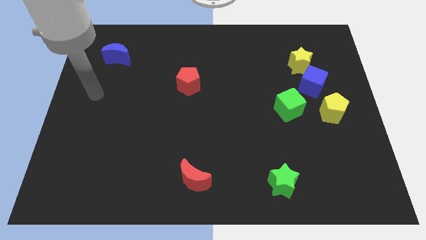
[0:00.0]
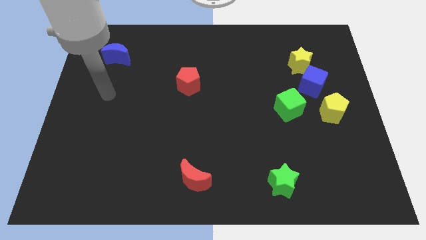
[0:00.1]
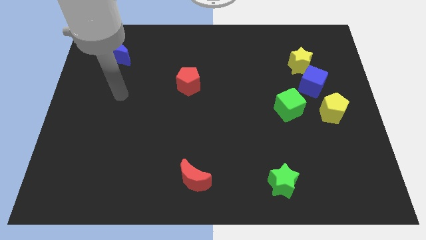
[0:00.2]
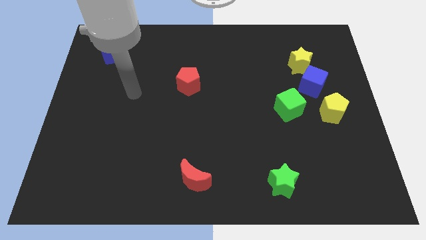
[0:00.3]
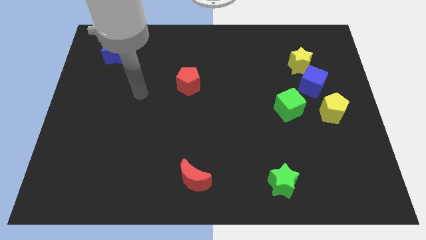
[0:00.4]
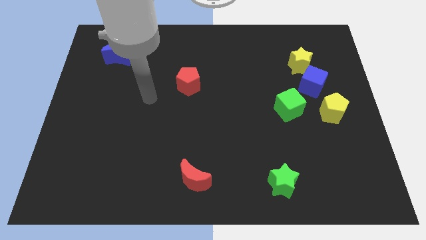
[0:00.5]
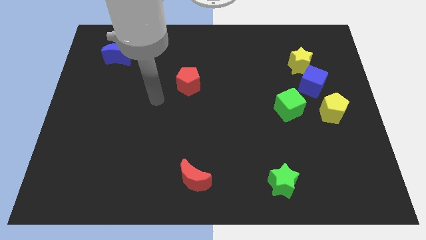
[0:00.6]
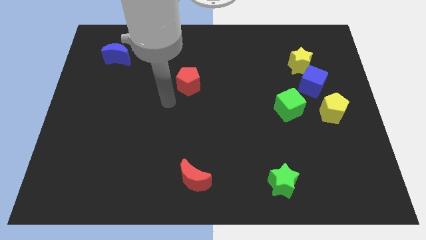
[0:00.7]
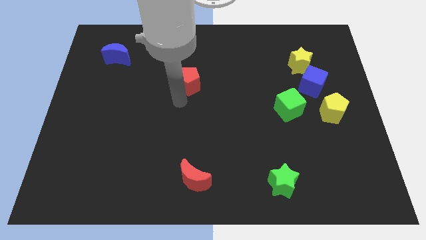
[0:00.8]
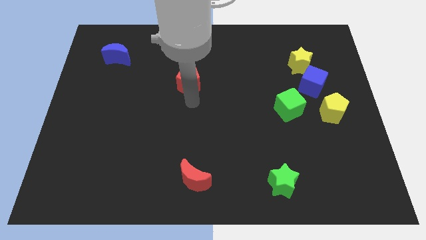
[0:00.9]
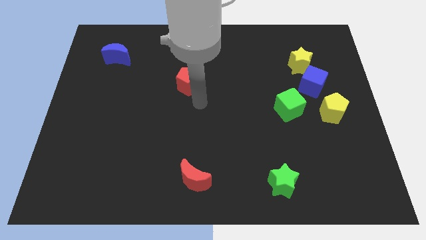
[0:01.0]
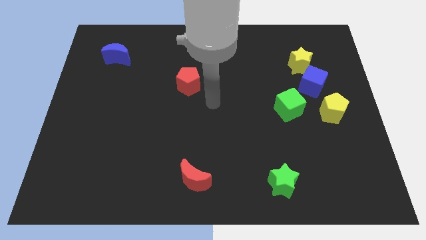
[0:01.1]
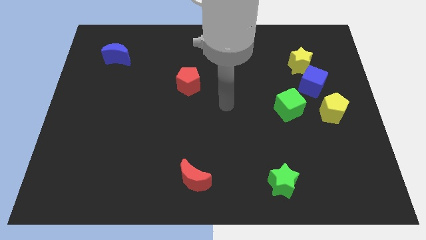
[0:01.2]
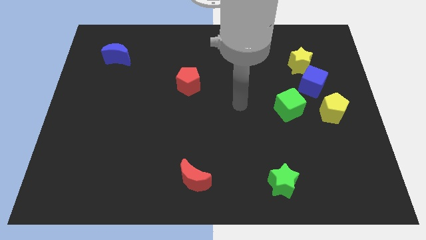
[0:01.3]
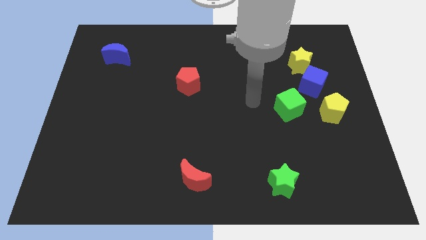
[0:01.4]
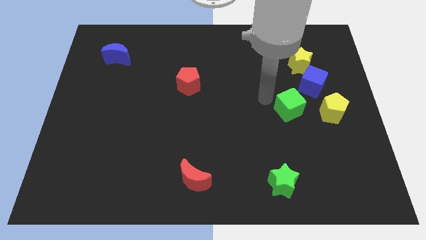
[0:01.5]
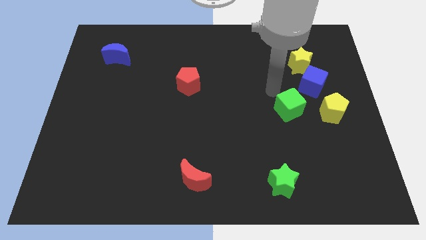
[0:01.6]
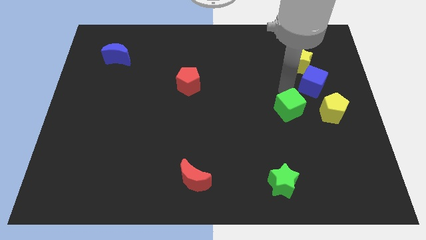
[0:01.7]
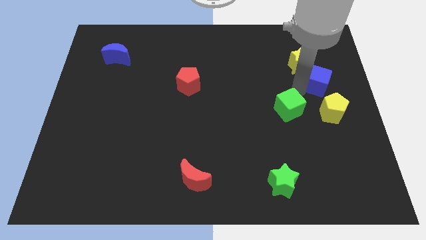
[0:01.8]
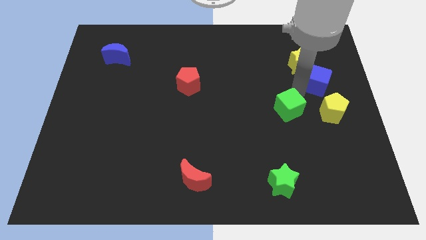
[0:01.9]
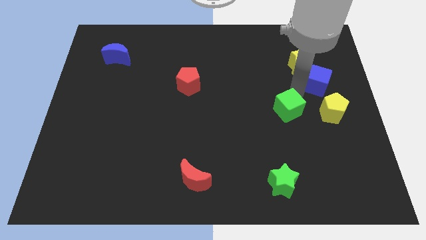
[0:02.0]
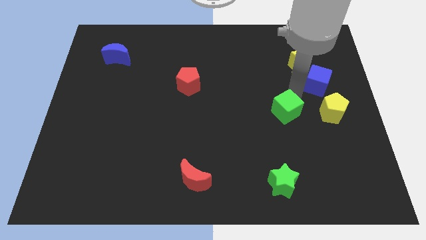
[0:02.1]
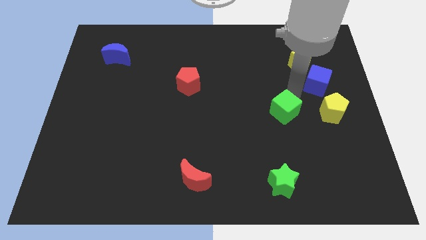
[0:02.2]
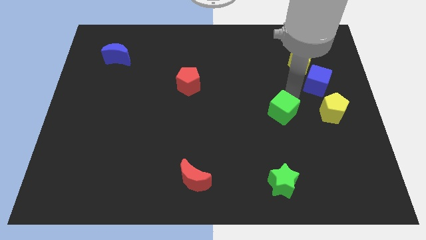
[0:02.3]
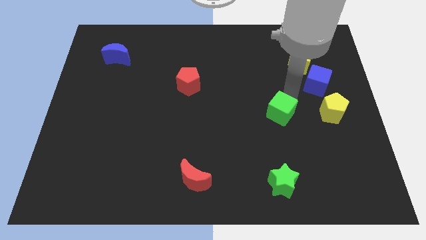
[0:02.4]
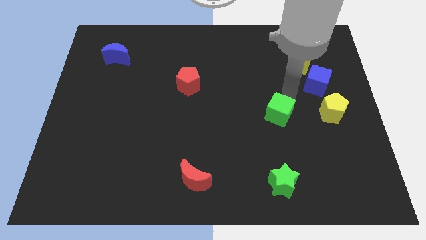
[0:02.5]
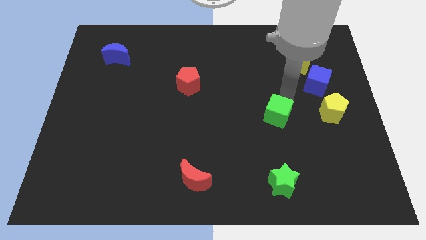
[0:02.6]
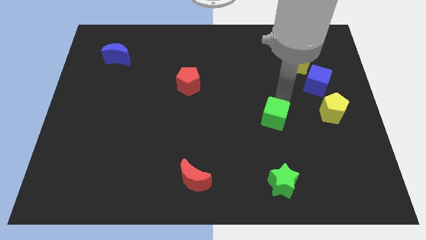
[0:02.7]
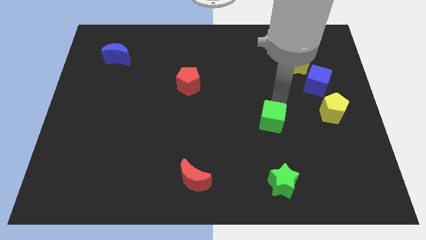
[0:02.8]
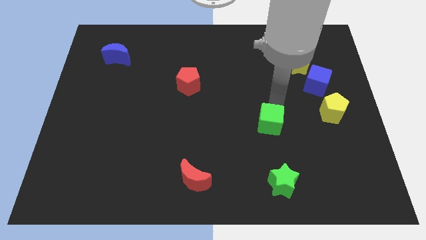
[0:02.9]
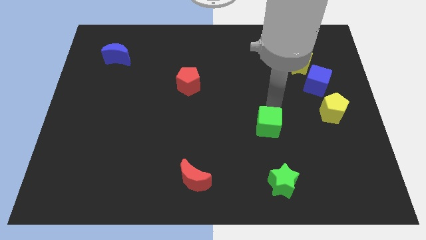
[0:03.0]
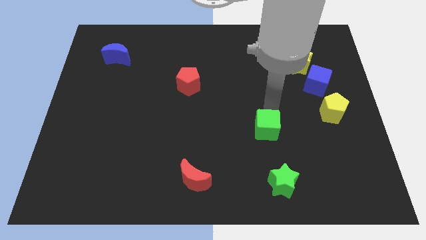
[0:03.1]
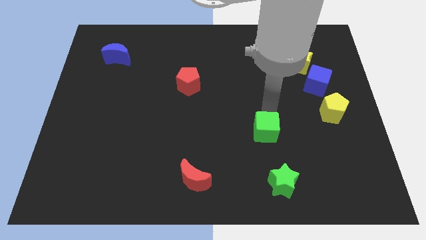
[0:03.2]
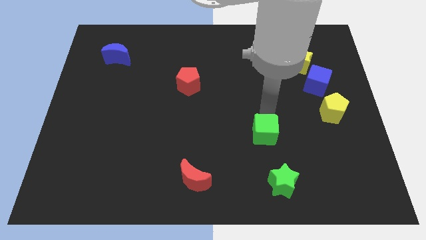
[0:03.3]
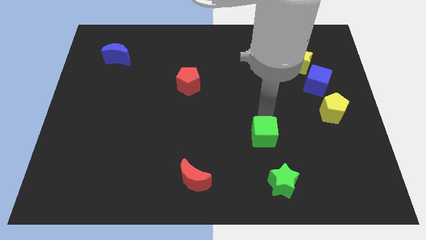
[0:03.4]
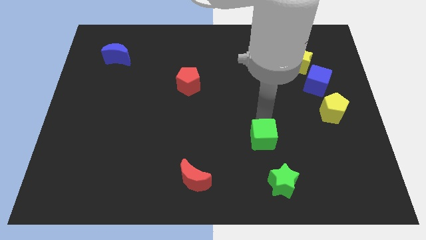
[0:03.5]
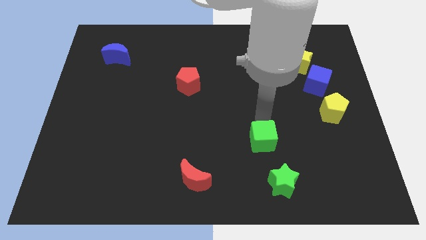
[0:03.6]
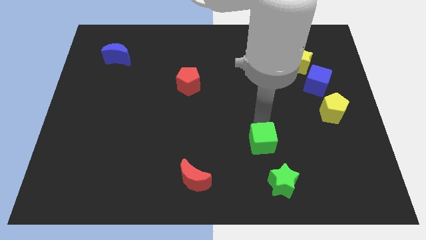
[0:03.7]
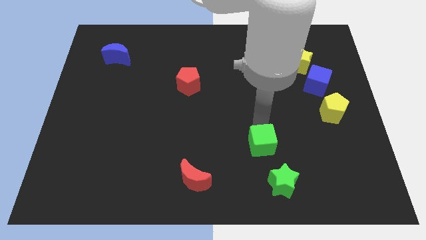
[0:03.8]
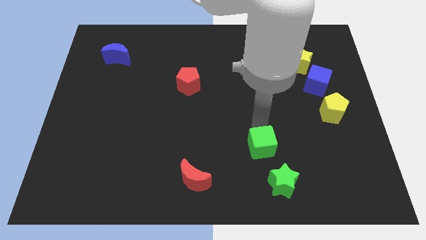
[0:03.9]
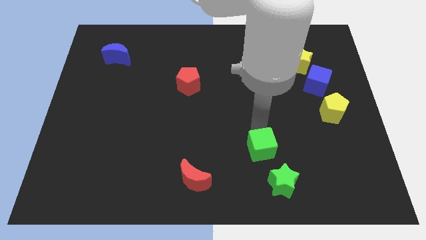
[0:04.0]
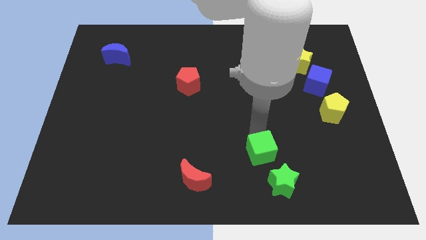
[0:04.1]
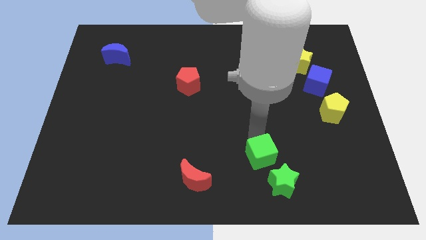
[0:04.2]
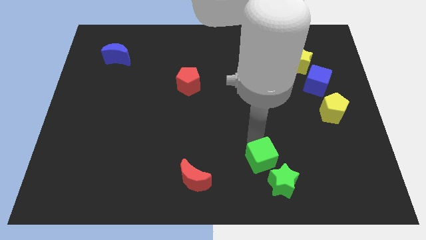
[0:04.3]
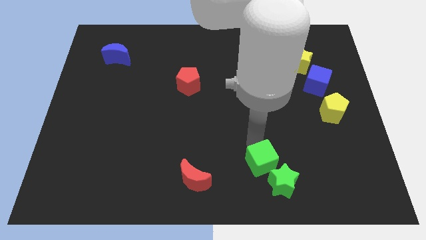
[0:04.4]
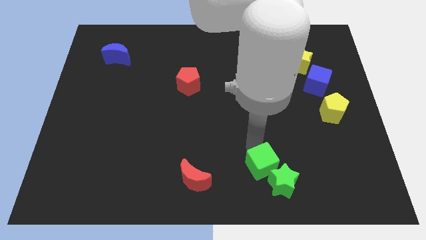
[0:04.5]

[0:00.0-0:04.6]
put the green cube close to the green star

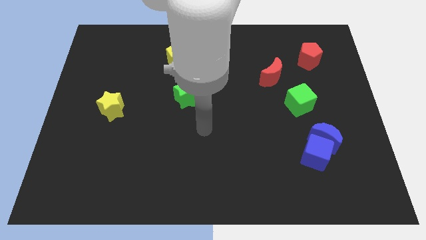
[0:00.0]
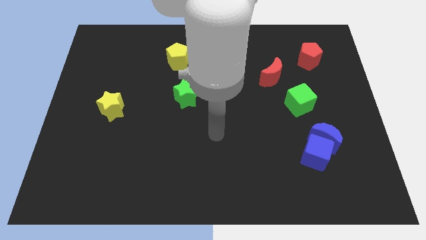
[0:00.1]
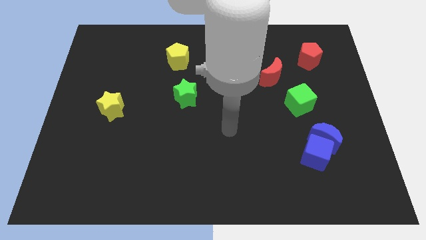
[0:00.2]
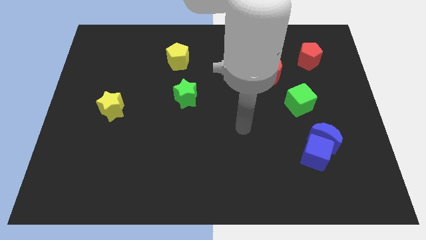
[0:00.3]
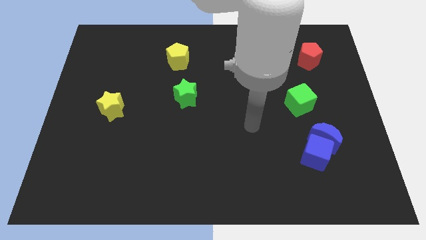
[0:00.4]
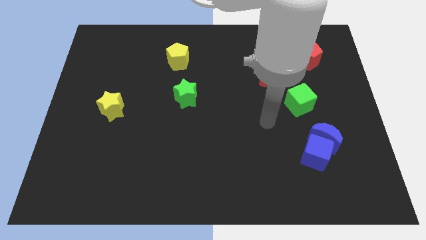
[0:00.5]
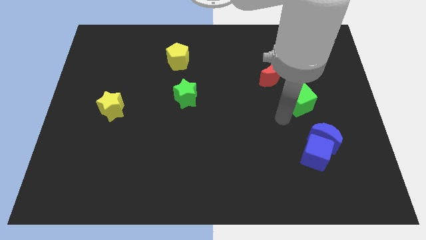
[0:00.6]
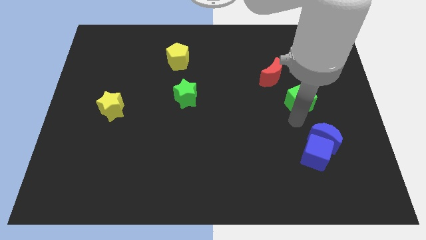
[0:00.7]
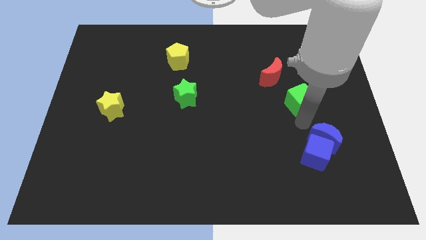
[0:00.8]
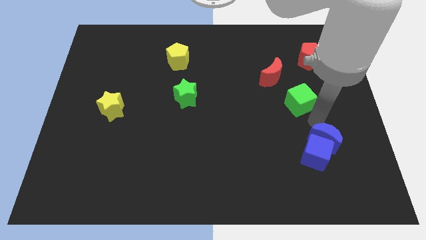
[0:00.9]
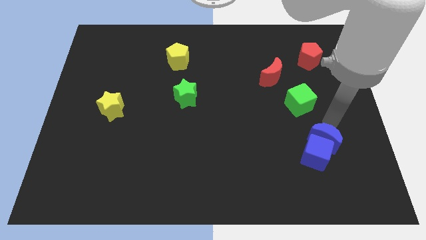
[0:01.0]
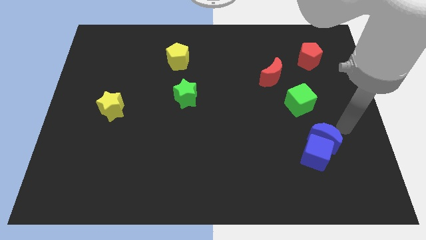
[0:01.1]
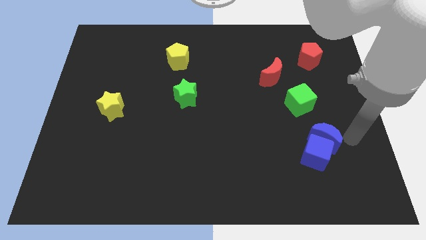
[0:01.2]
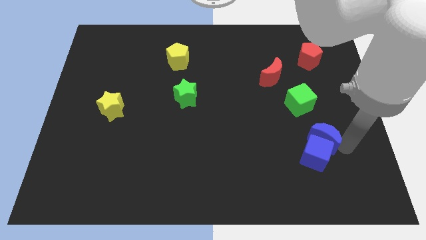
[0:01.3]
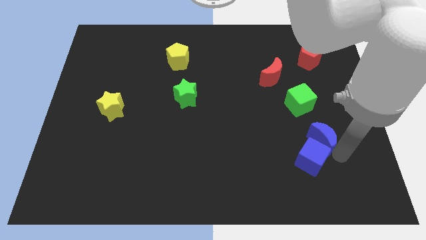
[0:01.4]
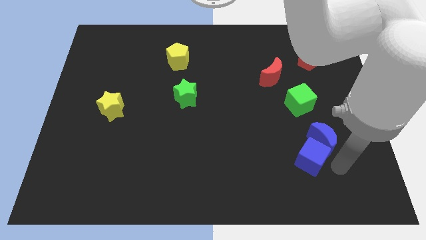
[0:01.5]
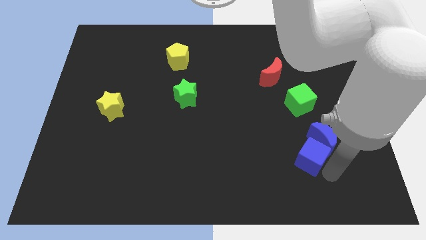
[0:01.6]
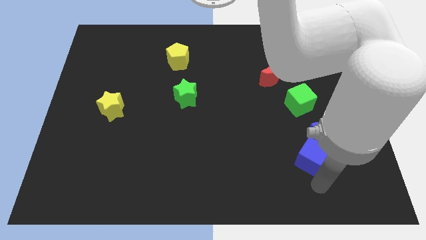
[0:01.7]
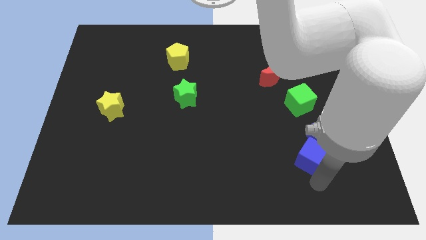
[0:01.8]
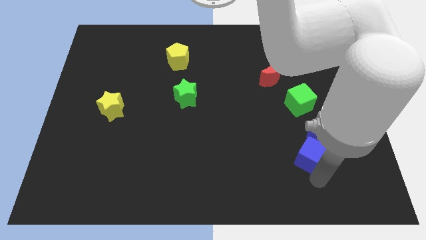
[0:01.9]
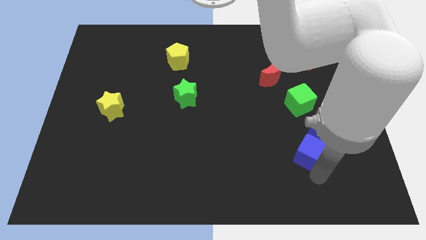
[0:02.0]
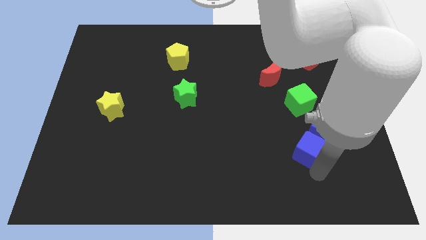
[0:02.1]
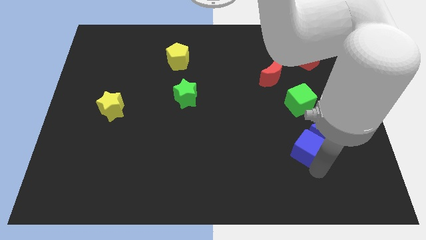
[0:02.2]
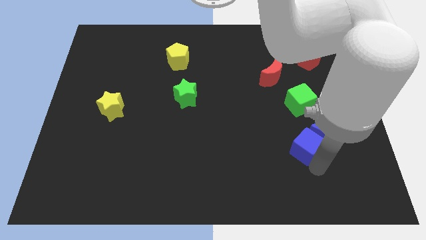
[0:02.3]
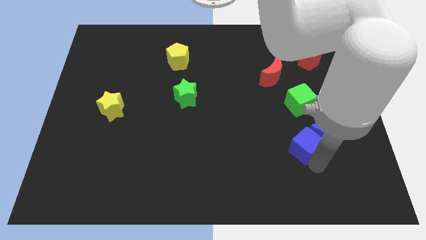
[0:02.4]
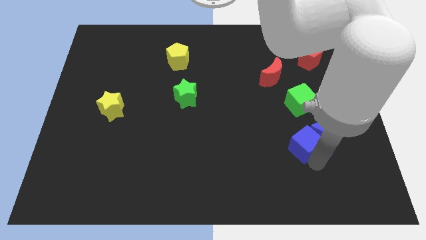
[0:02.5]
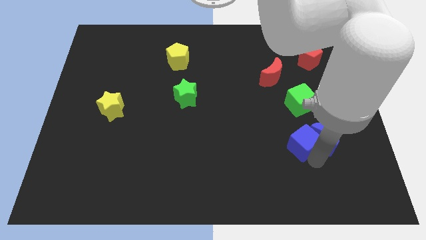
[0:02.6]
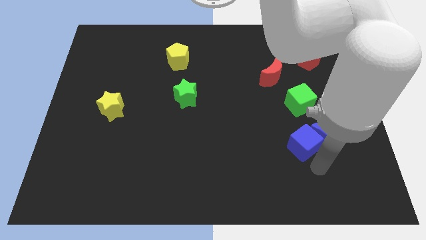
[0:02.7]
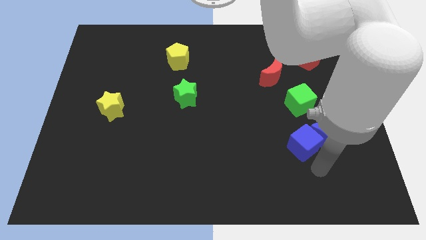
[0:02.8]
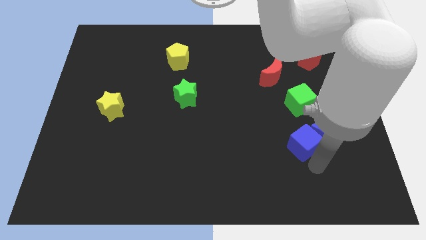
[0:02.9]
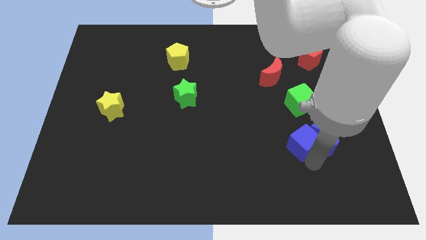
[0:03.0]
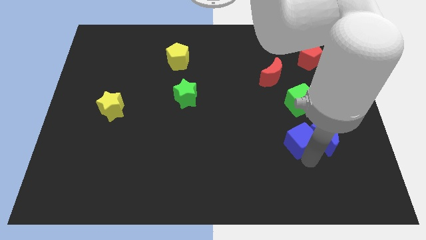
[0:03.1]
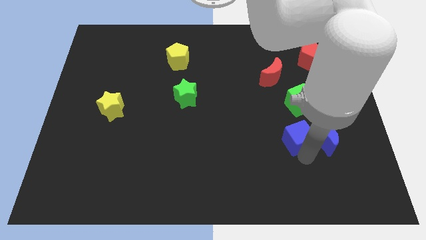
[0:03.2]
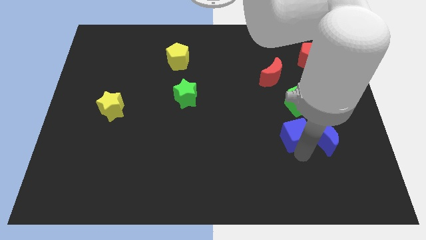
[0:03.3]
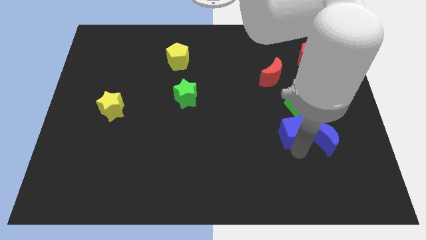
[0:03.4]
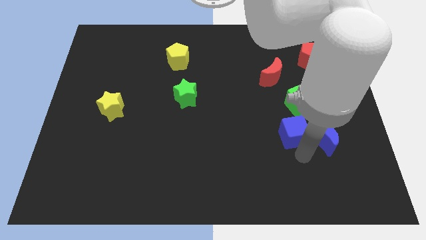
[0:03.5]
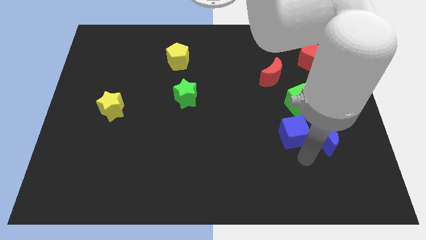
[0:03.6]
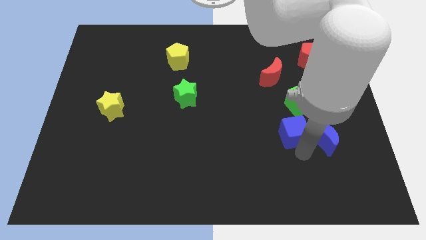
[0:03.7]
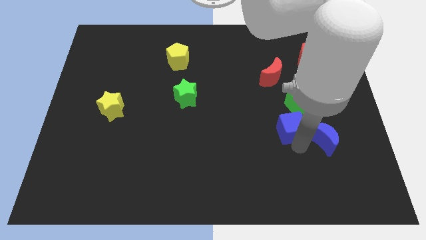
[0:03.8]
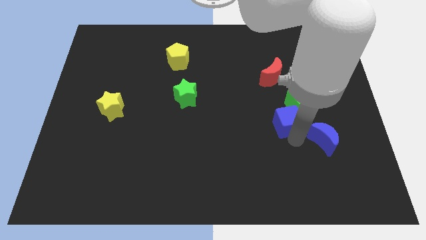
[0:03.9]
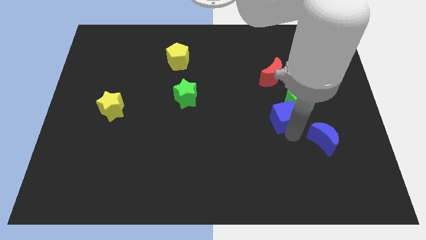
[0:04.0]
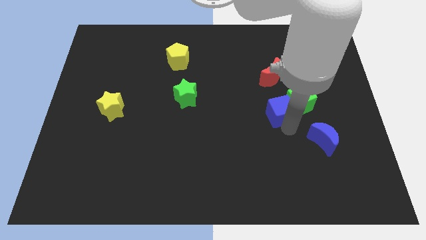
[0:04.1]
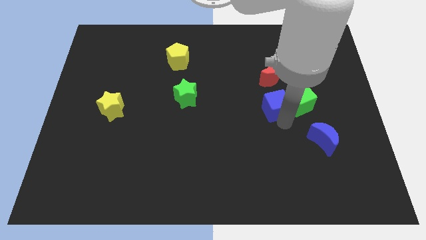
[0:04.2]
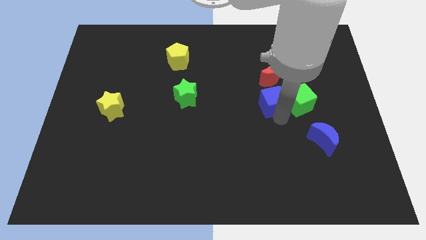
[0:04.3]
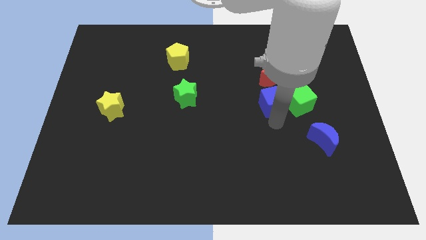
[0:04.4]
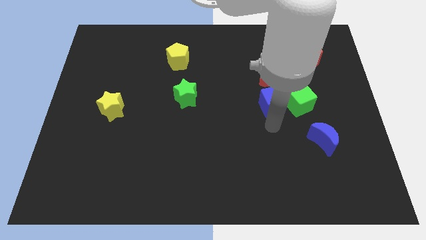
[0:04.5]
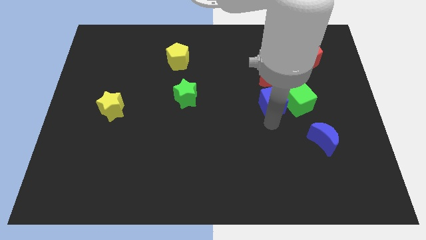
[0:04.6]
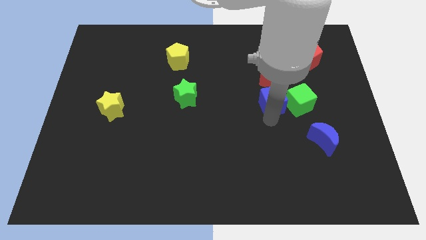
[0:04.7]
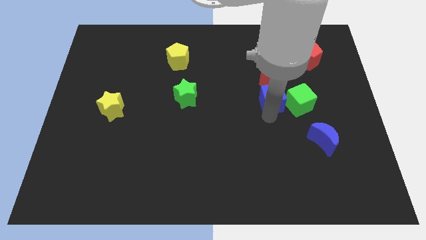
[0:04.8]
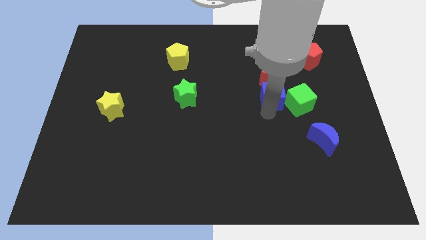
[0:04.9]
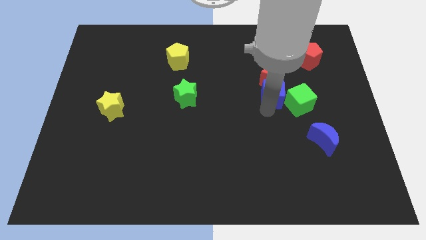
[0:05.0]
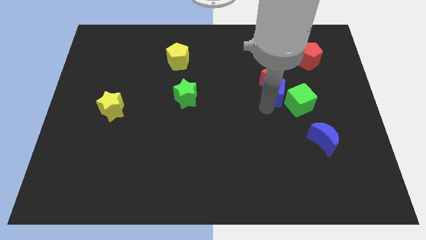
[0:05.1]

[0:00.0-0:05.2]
push the blue cube towards the red moon
